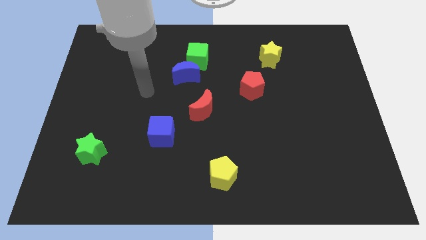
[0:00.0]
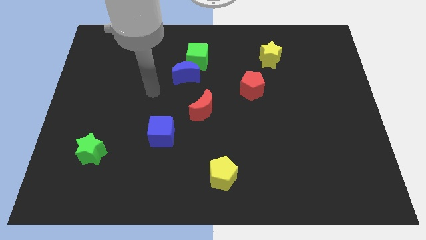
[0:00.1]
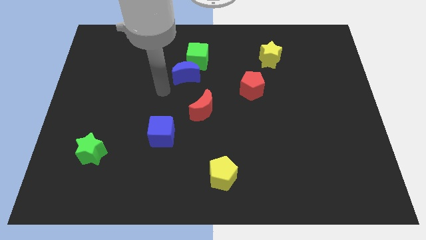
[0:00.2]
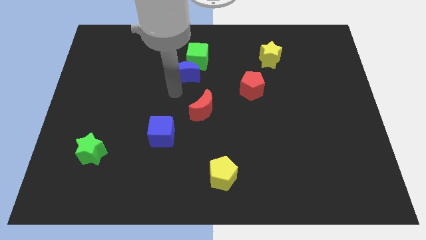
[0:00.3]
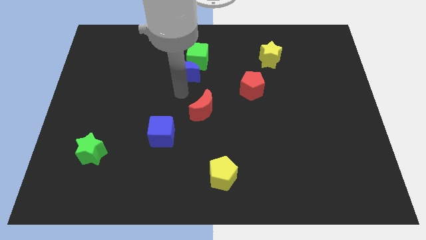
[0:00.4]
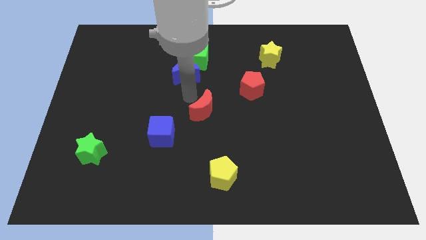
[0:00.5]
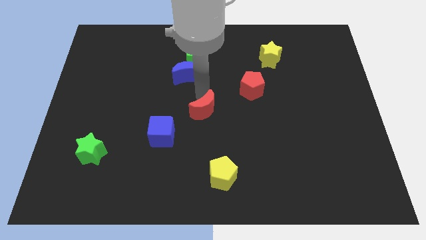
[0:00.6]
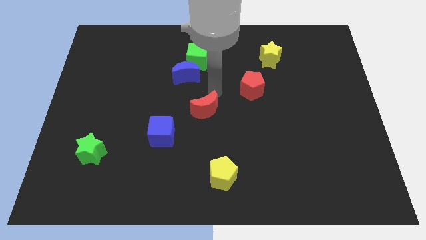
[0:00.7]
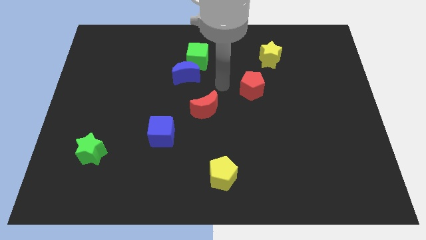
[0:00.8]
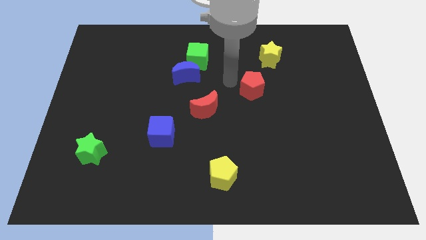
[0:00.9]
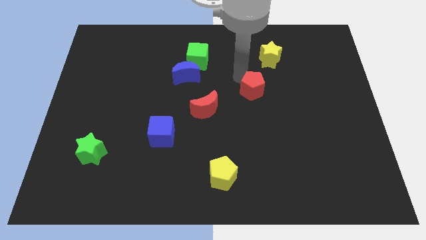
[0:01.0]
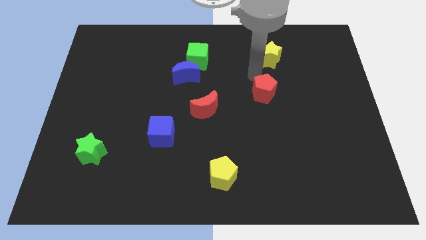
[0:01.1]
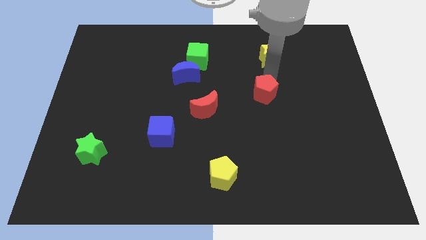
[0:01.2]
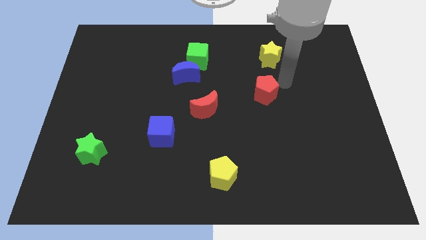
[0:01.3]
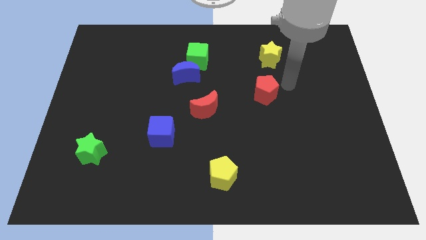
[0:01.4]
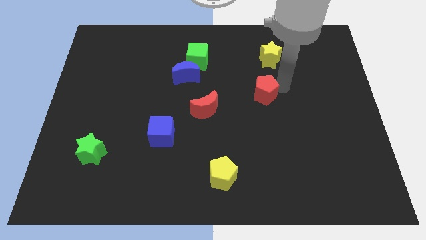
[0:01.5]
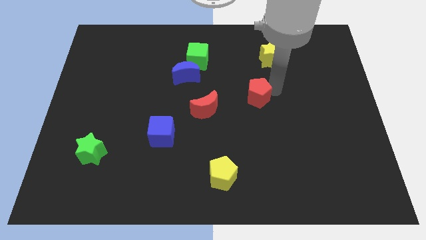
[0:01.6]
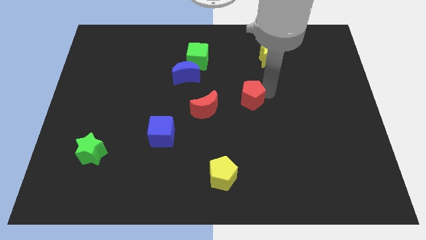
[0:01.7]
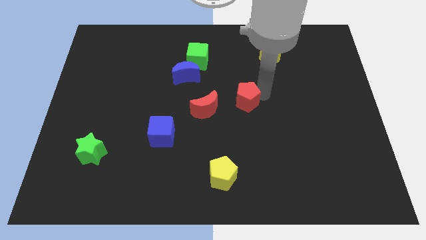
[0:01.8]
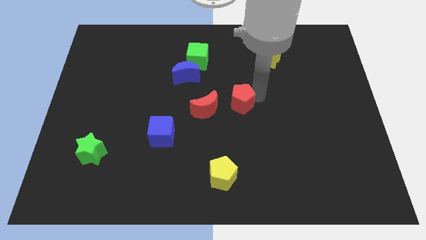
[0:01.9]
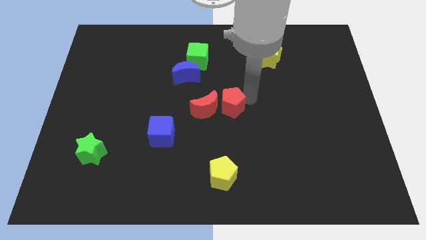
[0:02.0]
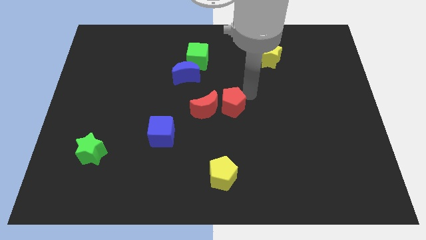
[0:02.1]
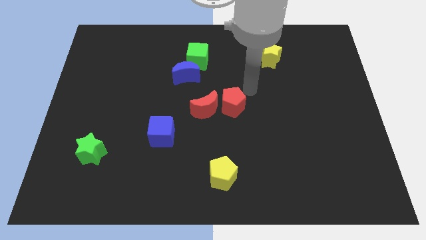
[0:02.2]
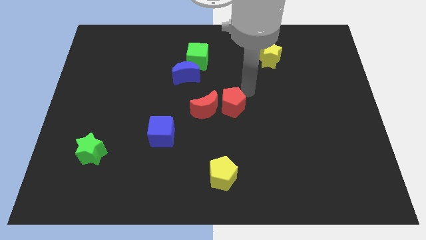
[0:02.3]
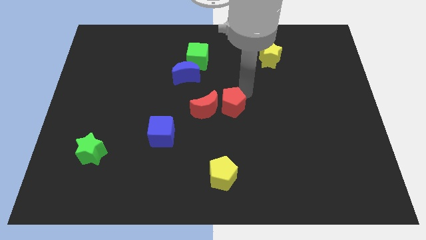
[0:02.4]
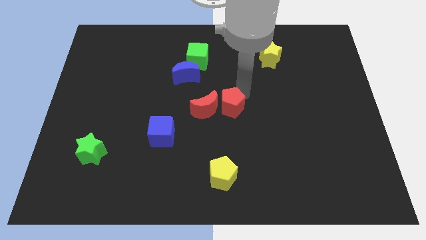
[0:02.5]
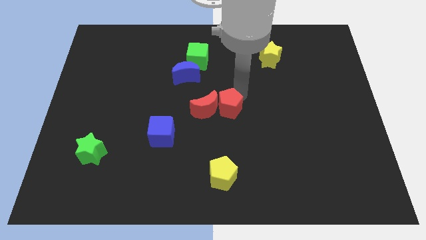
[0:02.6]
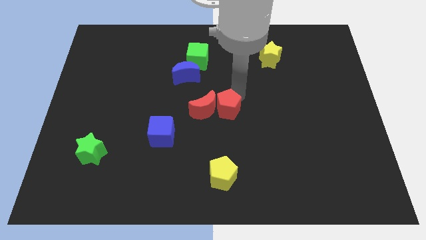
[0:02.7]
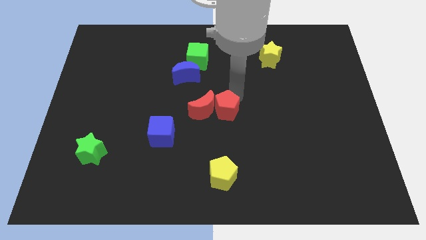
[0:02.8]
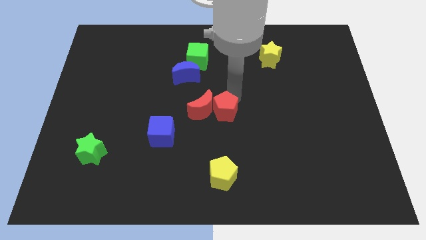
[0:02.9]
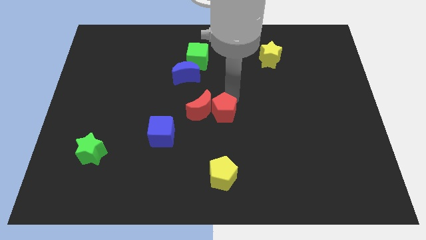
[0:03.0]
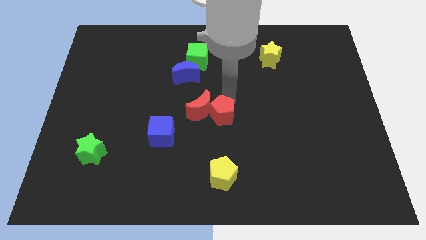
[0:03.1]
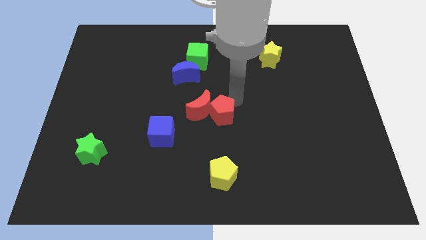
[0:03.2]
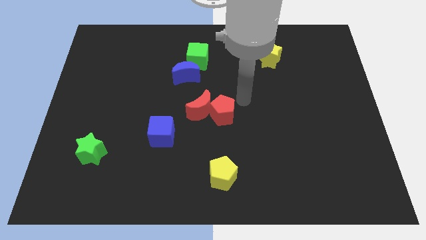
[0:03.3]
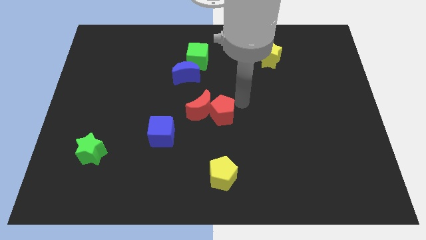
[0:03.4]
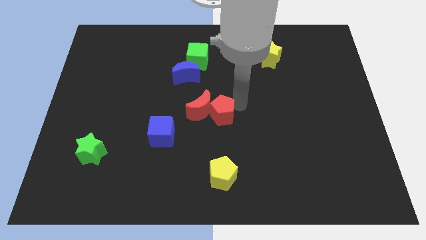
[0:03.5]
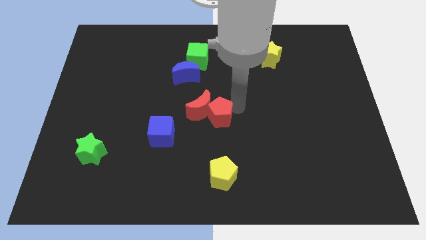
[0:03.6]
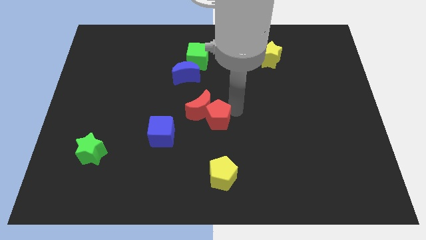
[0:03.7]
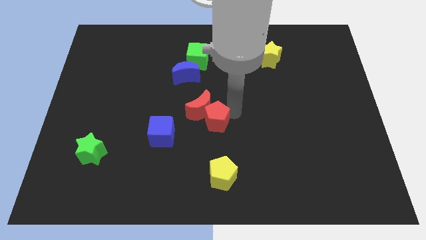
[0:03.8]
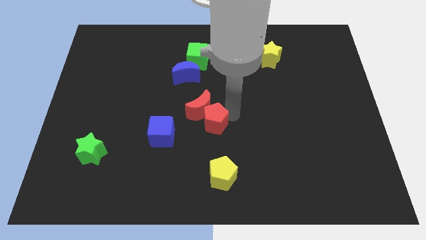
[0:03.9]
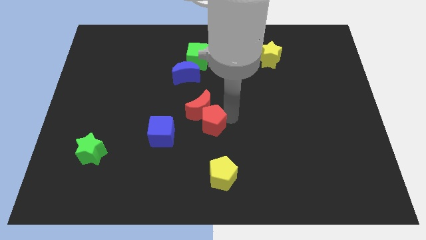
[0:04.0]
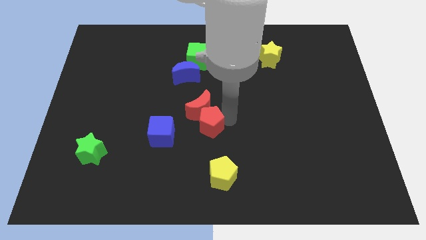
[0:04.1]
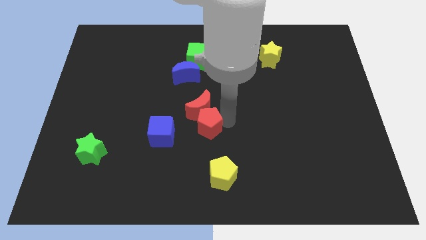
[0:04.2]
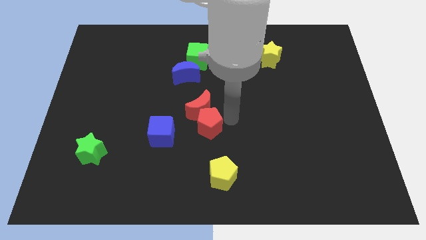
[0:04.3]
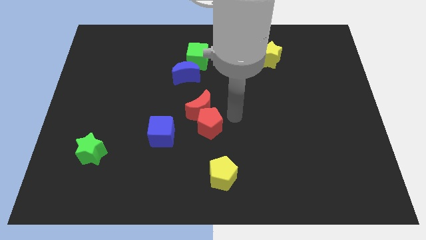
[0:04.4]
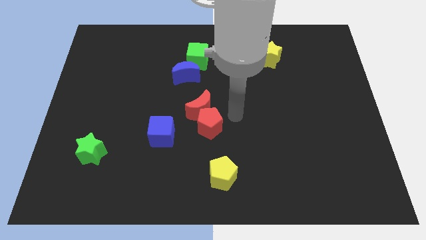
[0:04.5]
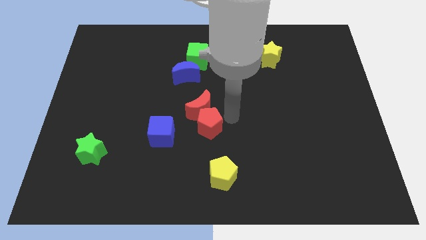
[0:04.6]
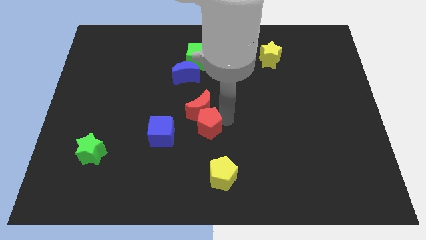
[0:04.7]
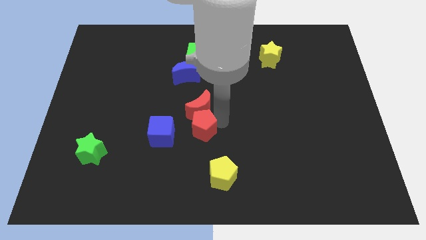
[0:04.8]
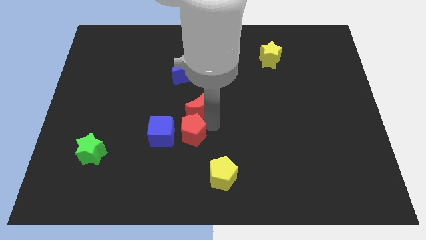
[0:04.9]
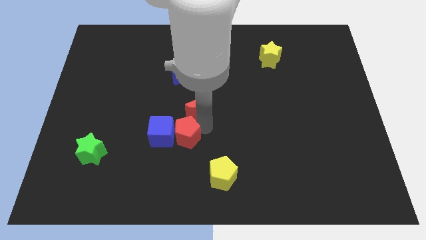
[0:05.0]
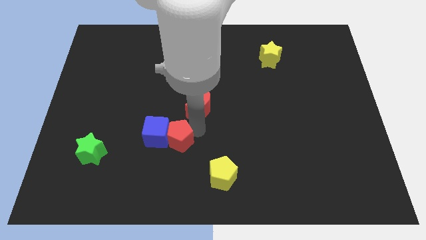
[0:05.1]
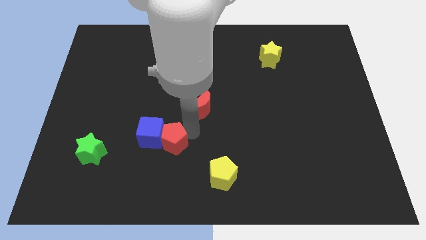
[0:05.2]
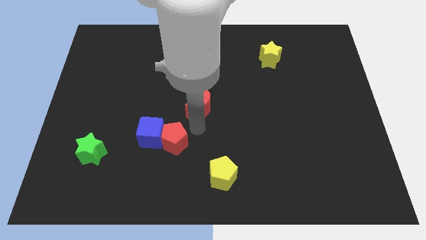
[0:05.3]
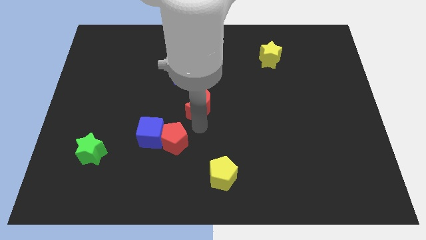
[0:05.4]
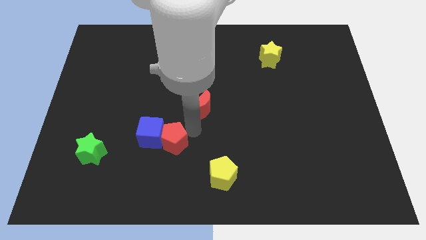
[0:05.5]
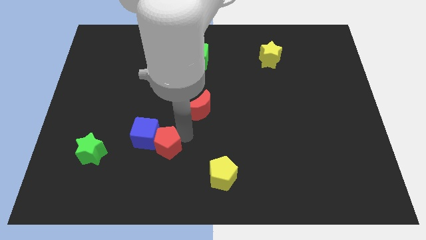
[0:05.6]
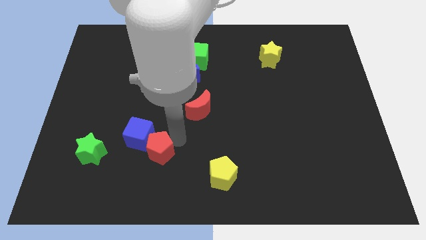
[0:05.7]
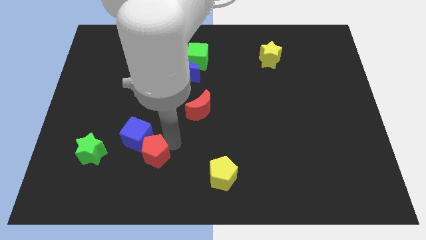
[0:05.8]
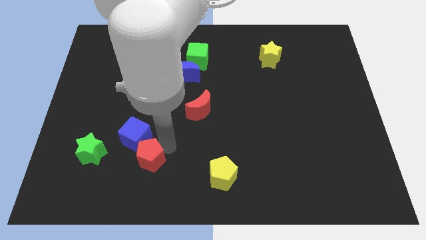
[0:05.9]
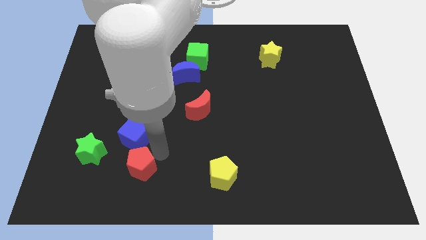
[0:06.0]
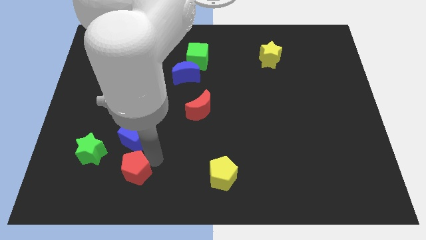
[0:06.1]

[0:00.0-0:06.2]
move the red pentagon diagonally down and to the right of the green star

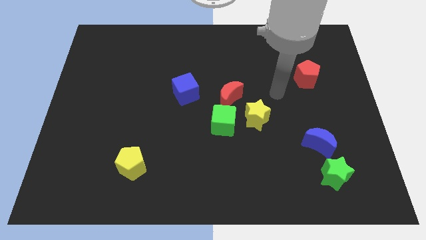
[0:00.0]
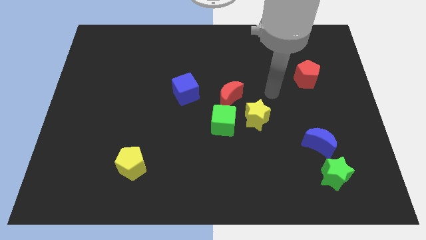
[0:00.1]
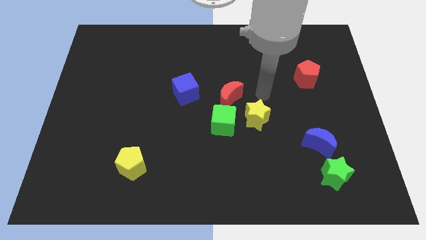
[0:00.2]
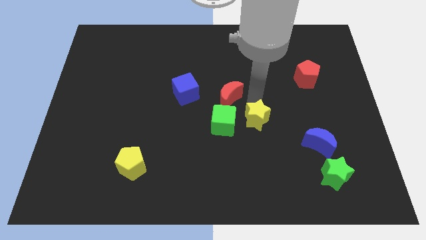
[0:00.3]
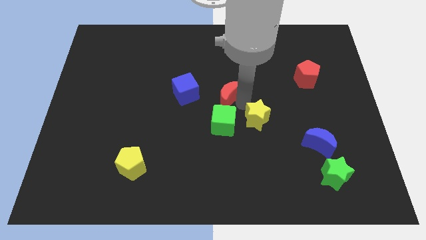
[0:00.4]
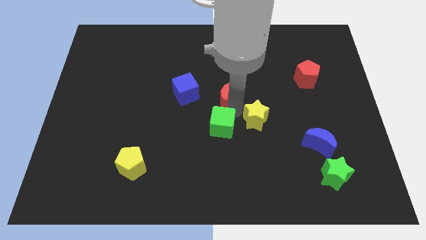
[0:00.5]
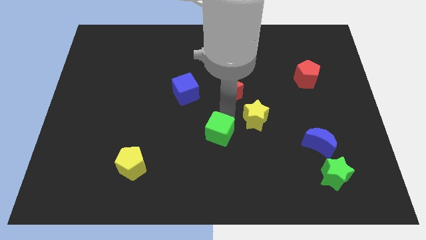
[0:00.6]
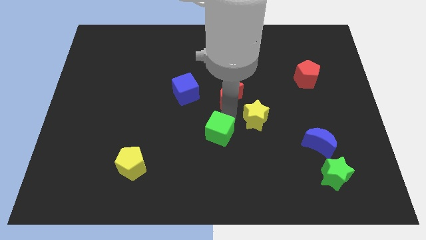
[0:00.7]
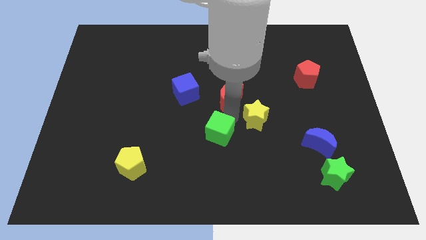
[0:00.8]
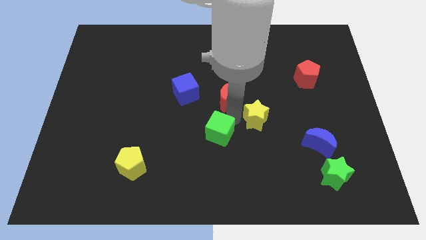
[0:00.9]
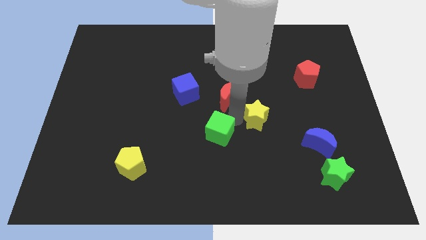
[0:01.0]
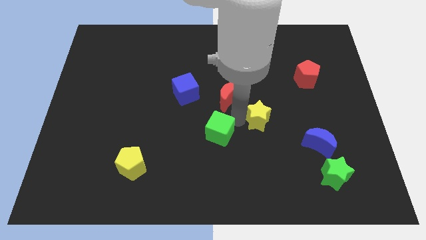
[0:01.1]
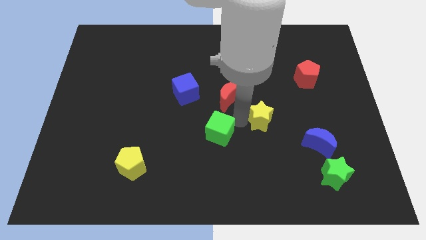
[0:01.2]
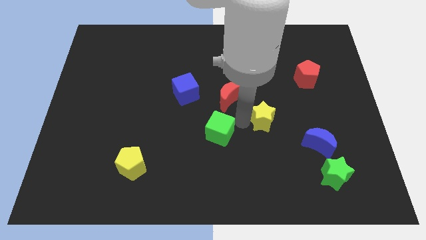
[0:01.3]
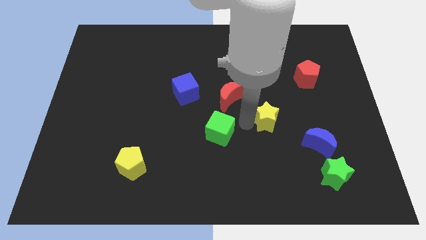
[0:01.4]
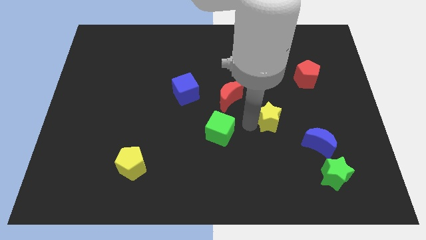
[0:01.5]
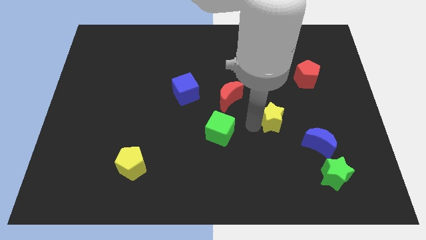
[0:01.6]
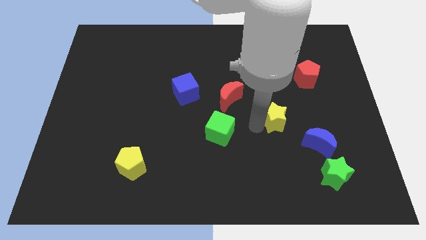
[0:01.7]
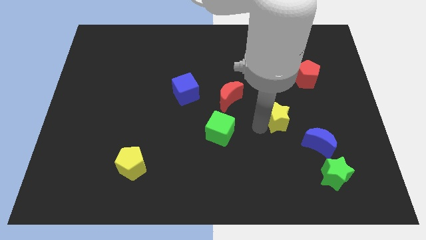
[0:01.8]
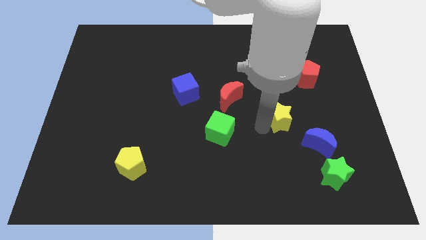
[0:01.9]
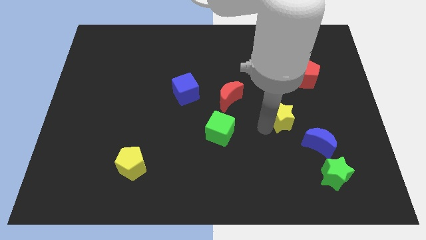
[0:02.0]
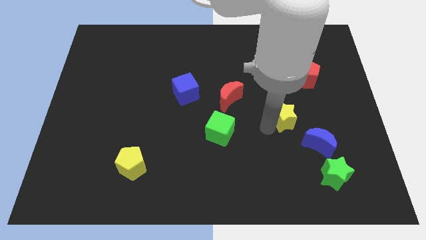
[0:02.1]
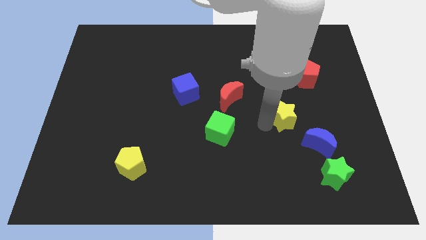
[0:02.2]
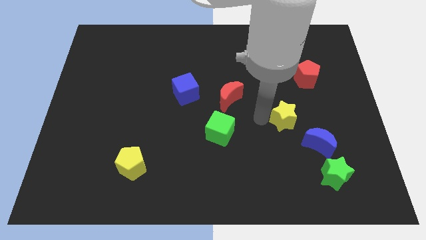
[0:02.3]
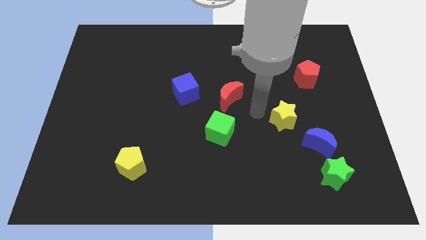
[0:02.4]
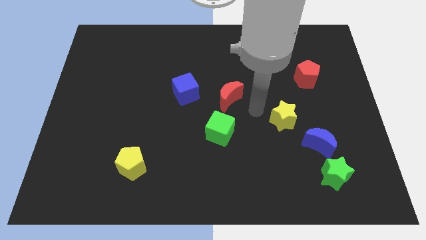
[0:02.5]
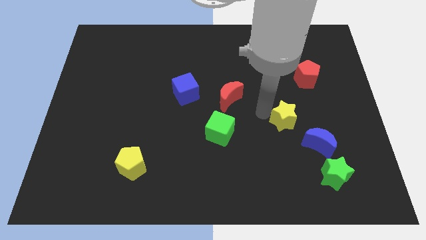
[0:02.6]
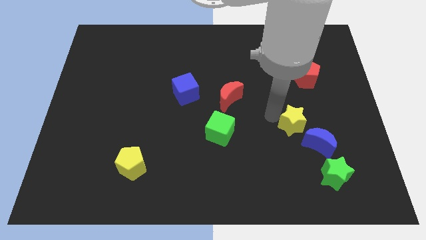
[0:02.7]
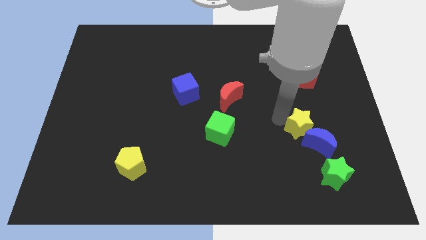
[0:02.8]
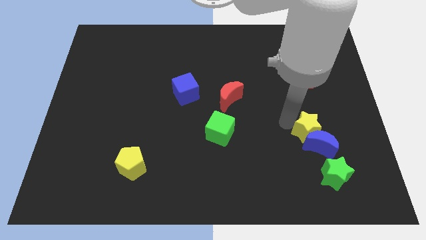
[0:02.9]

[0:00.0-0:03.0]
move the yellow star to the top of the green star
